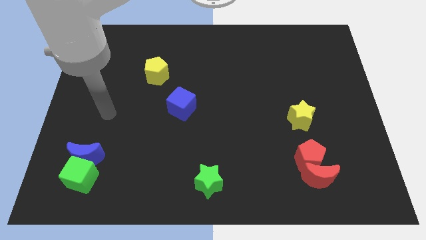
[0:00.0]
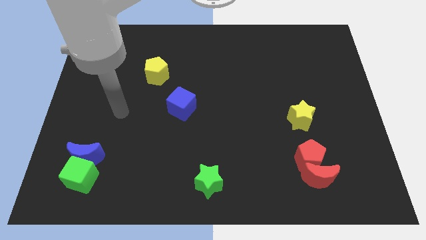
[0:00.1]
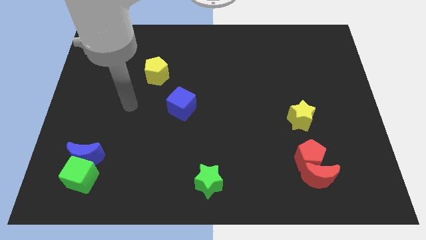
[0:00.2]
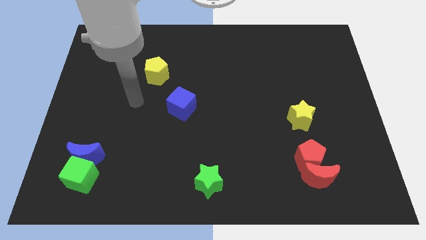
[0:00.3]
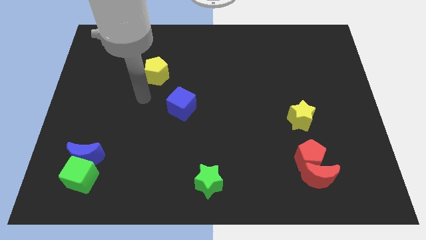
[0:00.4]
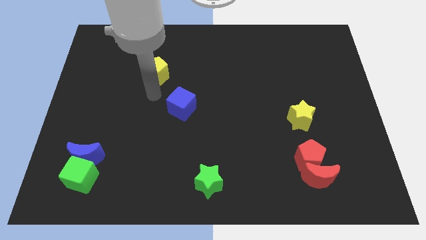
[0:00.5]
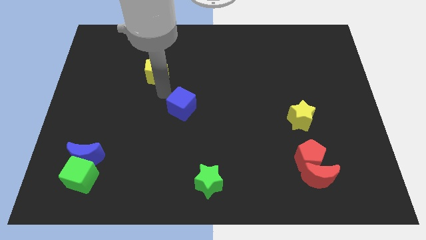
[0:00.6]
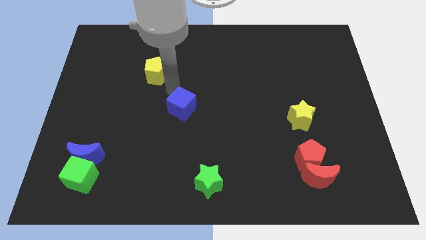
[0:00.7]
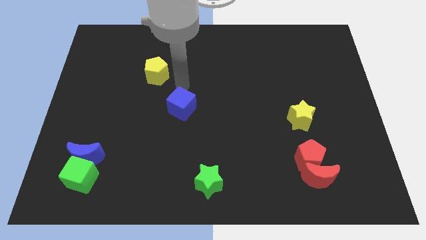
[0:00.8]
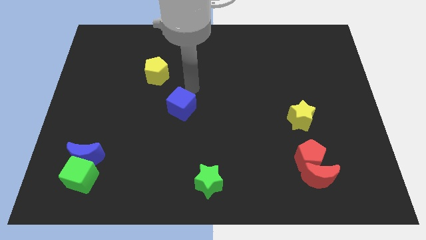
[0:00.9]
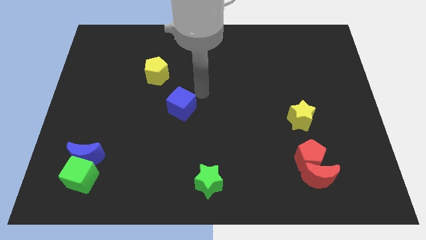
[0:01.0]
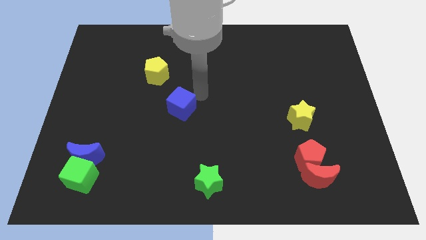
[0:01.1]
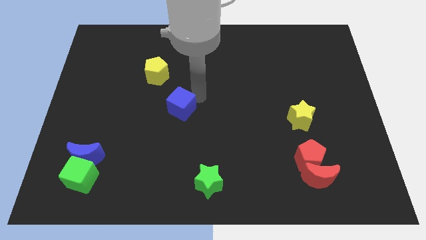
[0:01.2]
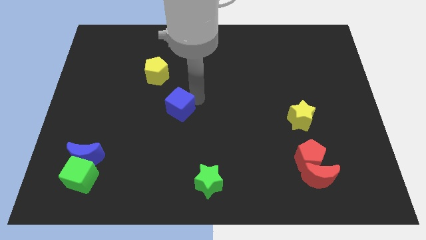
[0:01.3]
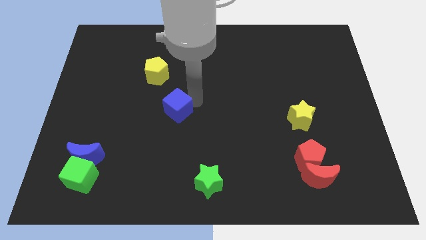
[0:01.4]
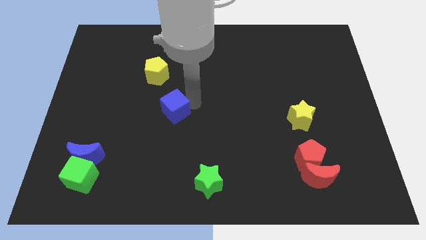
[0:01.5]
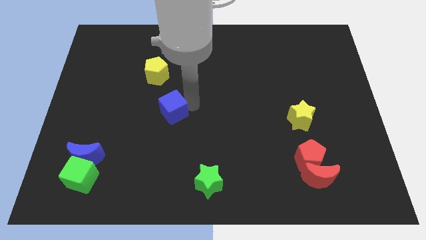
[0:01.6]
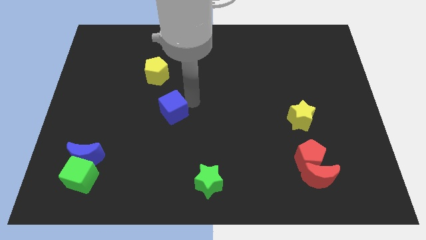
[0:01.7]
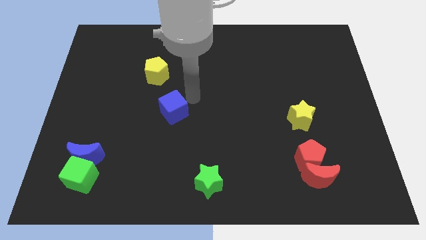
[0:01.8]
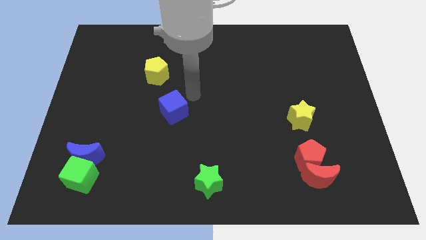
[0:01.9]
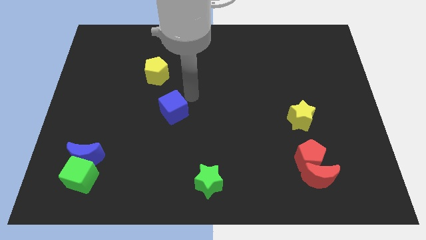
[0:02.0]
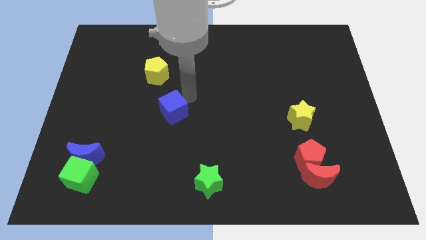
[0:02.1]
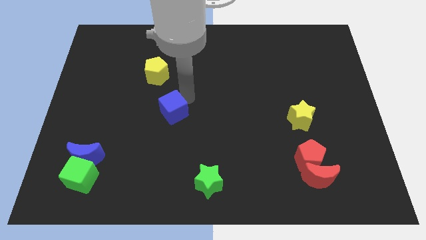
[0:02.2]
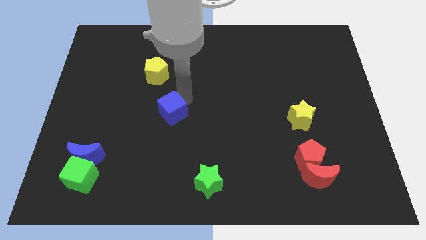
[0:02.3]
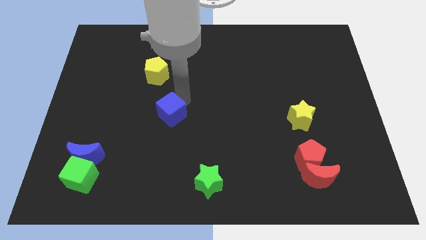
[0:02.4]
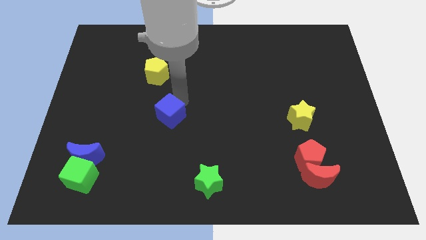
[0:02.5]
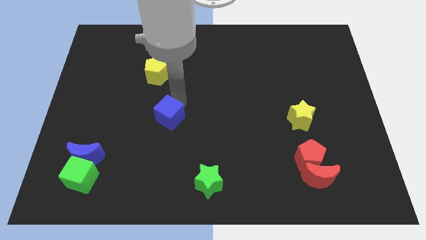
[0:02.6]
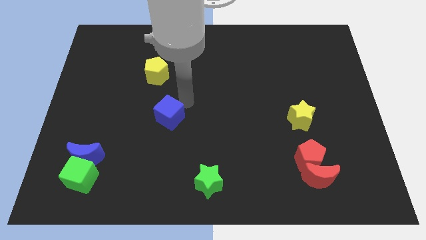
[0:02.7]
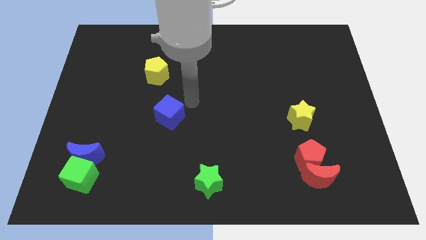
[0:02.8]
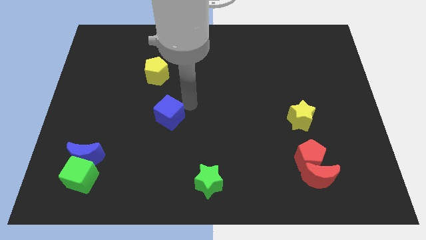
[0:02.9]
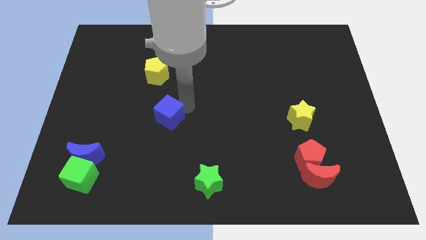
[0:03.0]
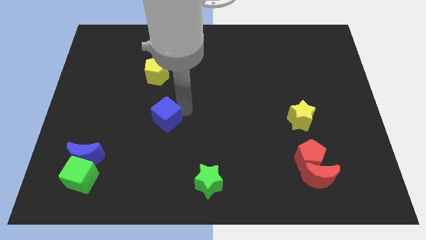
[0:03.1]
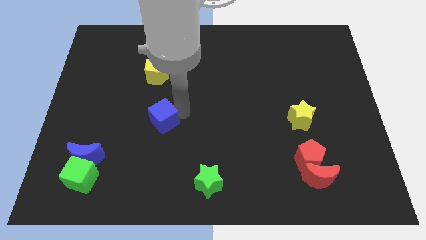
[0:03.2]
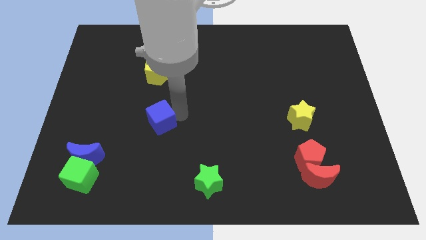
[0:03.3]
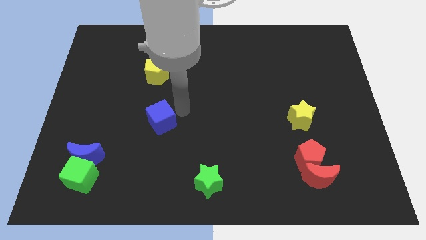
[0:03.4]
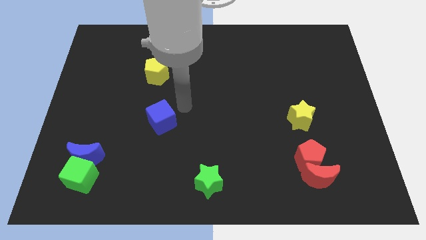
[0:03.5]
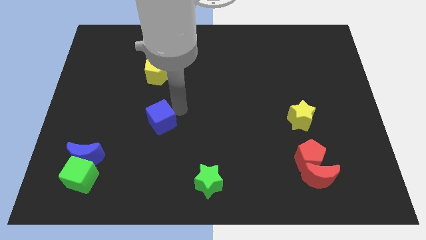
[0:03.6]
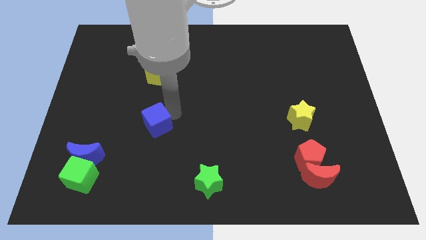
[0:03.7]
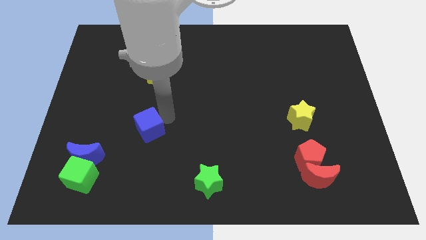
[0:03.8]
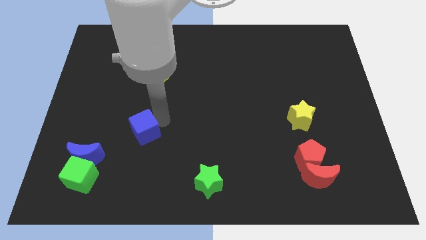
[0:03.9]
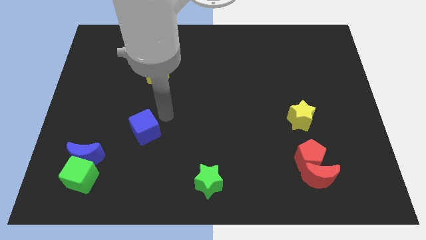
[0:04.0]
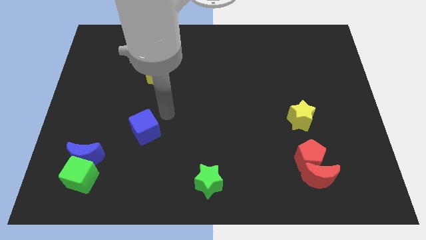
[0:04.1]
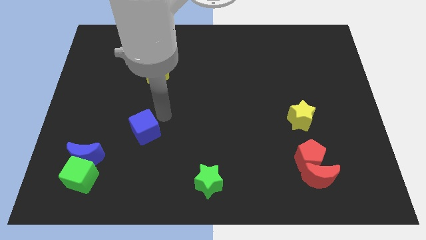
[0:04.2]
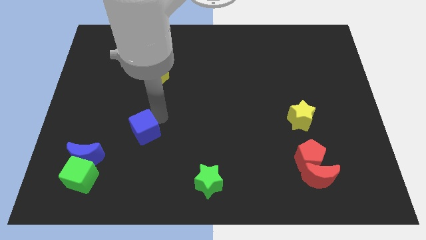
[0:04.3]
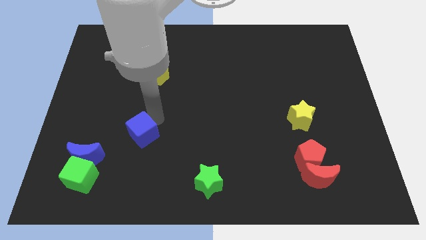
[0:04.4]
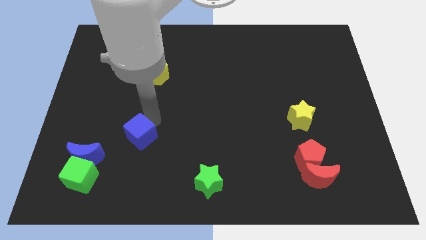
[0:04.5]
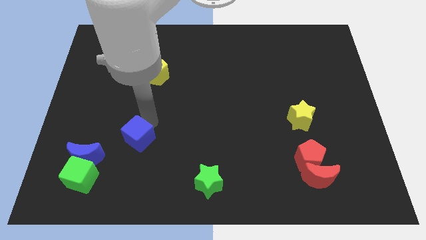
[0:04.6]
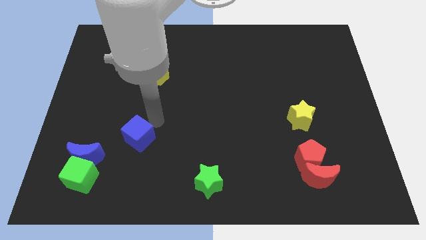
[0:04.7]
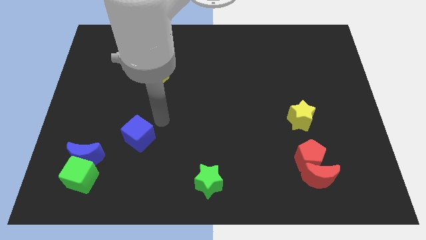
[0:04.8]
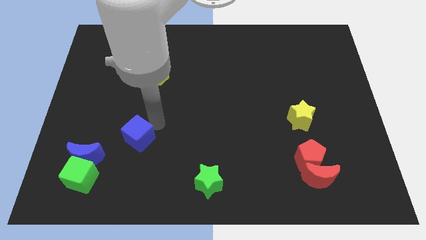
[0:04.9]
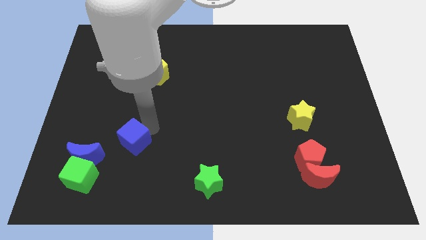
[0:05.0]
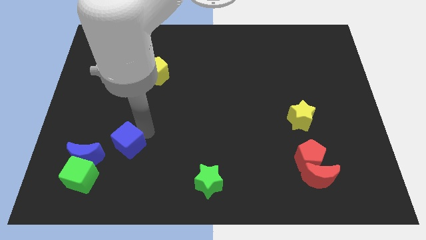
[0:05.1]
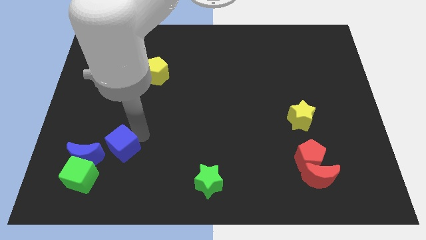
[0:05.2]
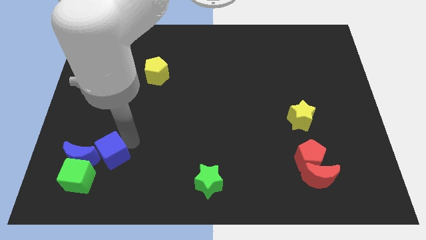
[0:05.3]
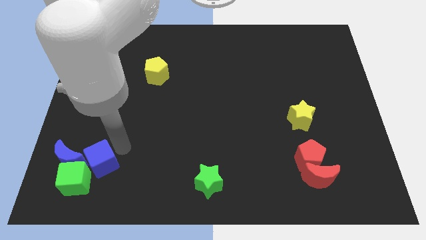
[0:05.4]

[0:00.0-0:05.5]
push the blue cube to the green cube

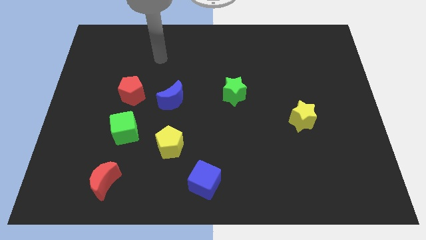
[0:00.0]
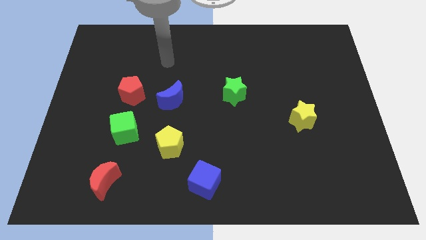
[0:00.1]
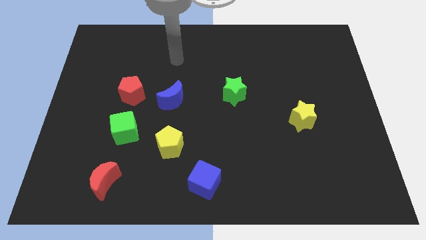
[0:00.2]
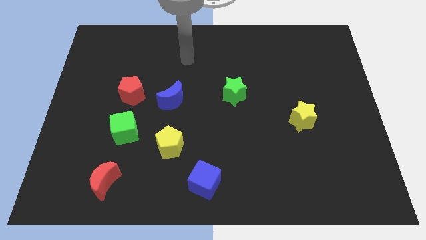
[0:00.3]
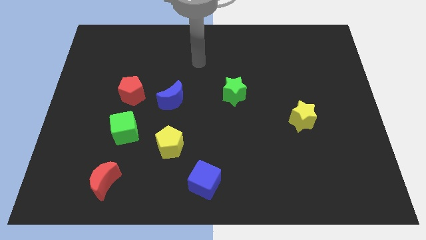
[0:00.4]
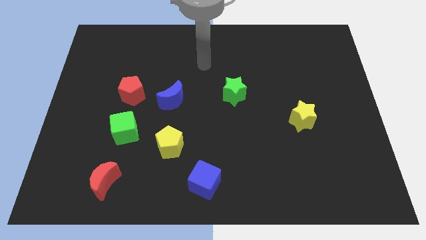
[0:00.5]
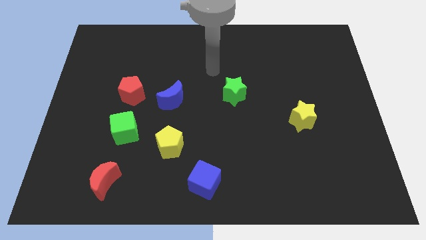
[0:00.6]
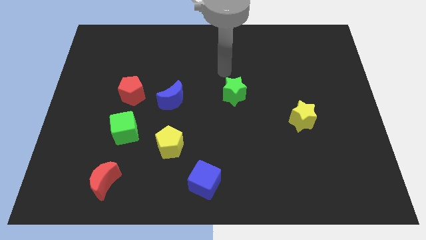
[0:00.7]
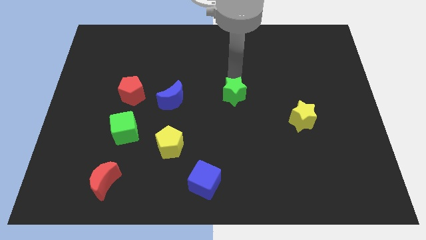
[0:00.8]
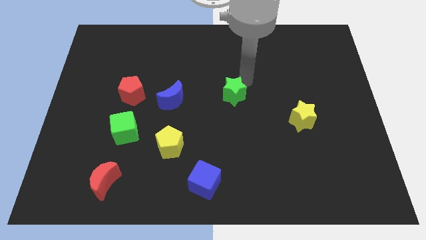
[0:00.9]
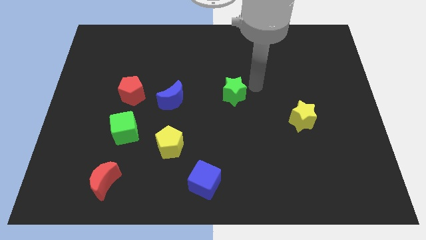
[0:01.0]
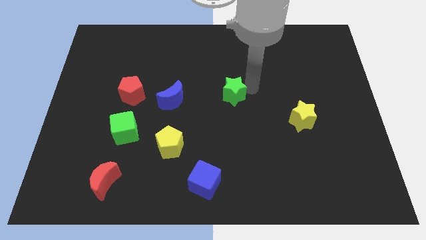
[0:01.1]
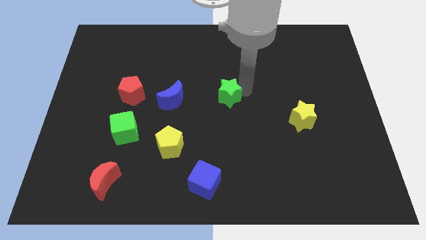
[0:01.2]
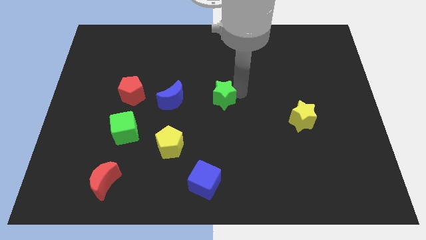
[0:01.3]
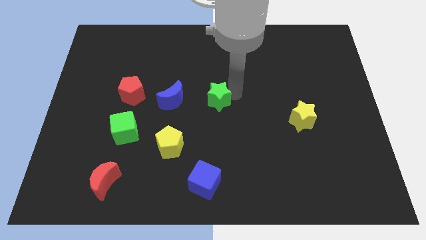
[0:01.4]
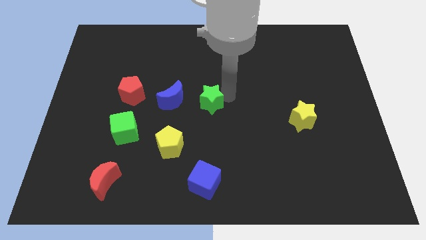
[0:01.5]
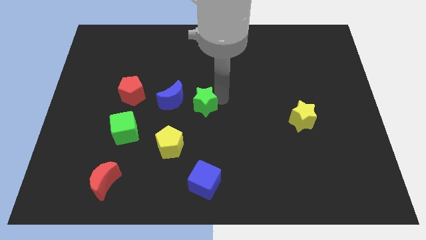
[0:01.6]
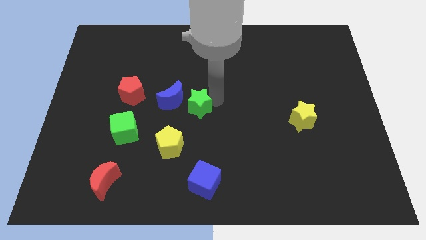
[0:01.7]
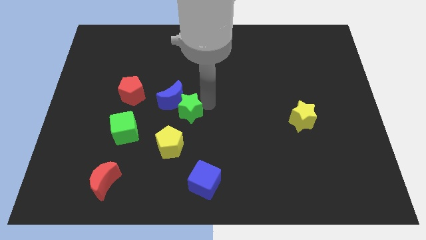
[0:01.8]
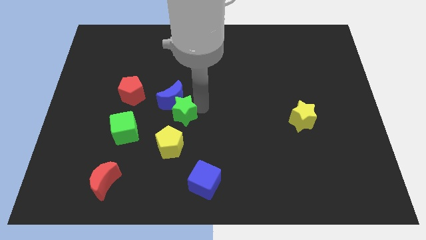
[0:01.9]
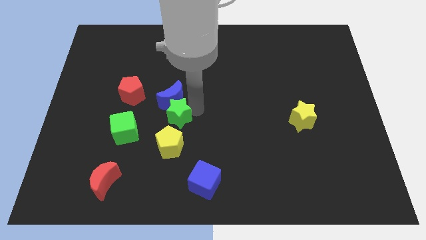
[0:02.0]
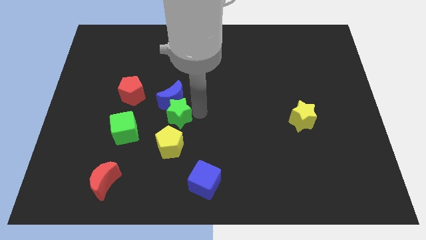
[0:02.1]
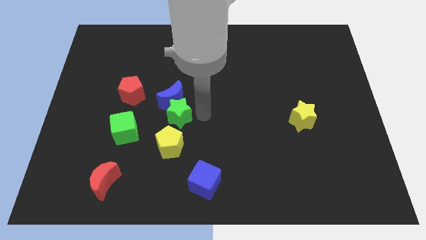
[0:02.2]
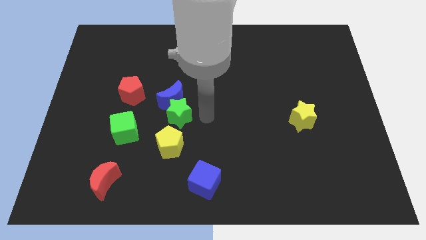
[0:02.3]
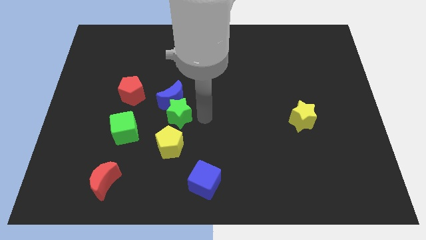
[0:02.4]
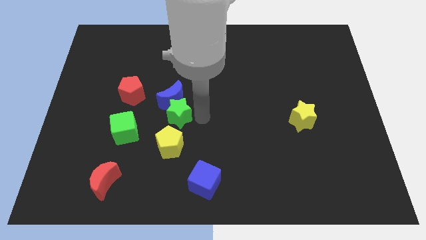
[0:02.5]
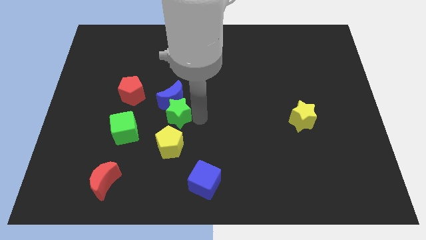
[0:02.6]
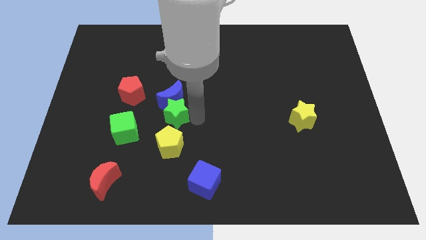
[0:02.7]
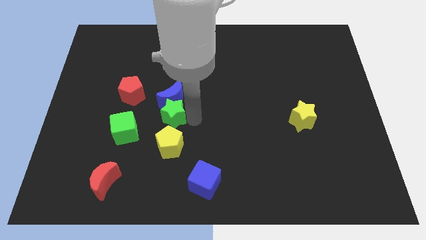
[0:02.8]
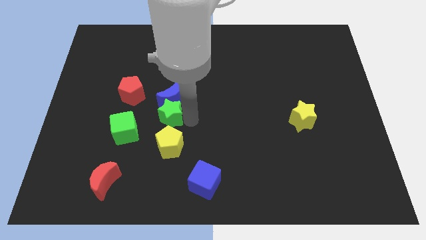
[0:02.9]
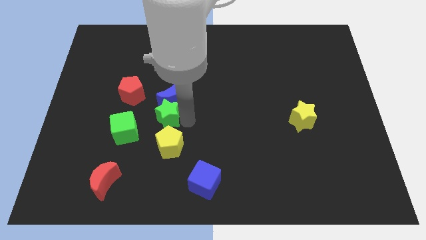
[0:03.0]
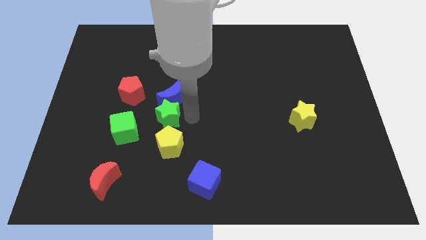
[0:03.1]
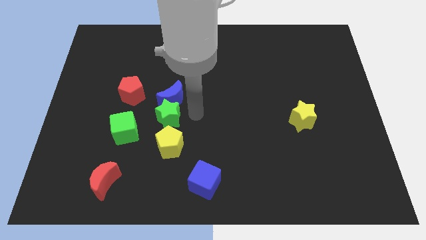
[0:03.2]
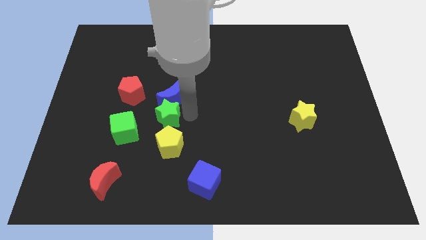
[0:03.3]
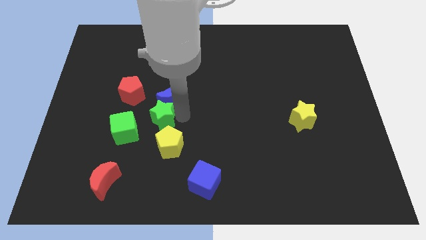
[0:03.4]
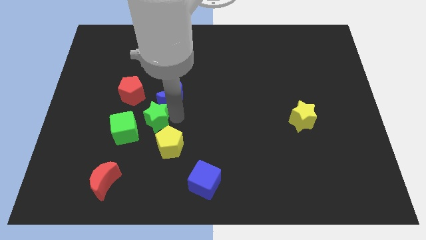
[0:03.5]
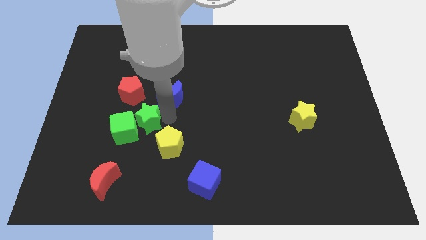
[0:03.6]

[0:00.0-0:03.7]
put the green star to the green cube
